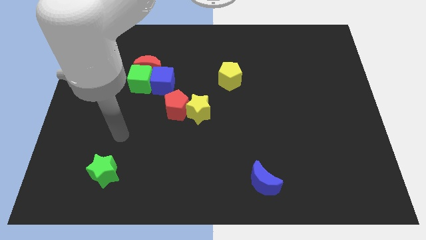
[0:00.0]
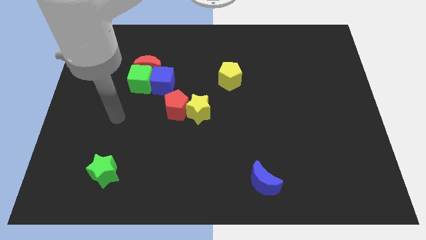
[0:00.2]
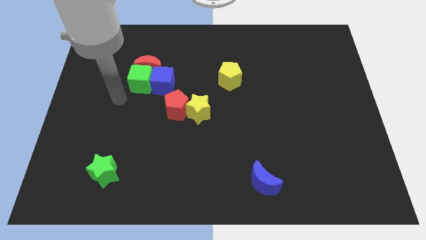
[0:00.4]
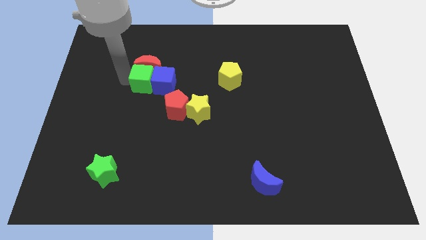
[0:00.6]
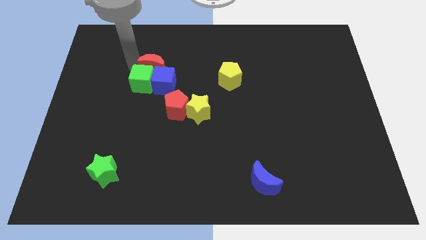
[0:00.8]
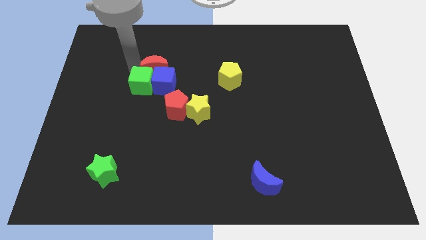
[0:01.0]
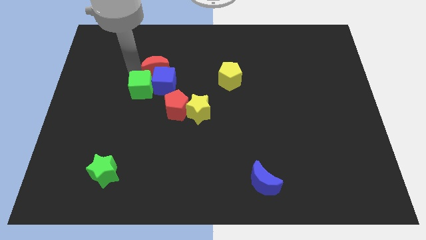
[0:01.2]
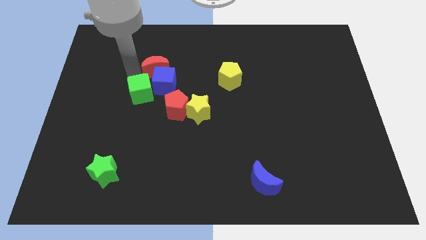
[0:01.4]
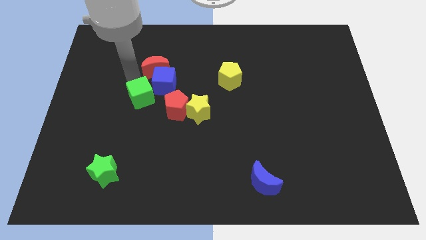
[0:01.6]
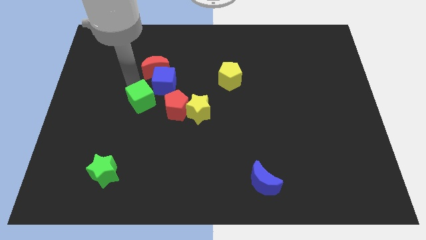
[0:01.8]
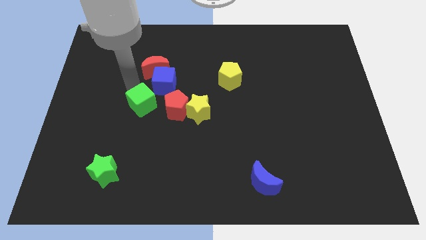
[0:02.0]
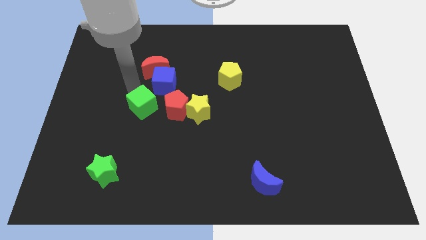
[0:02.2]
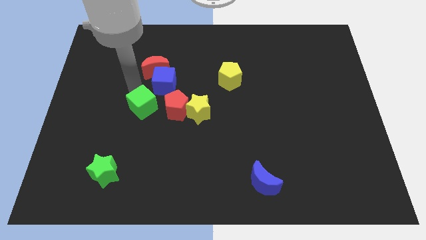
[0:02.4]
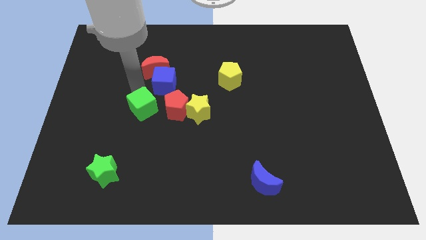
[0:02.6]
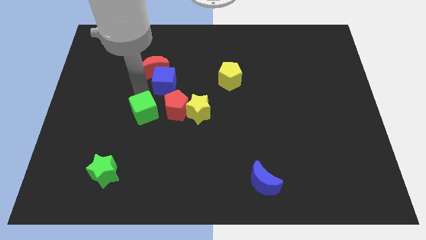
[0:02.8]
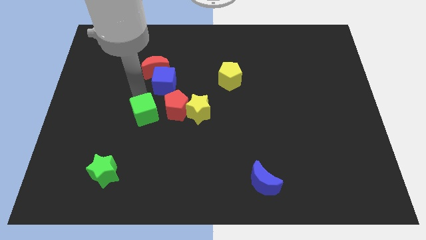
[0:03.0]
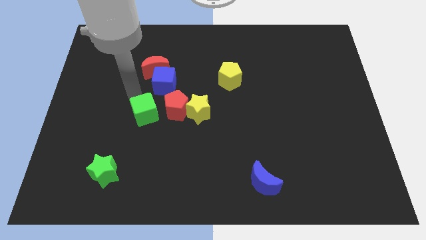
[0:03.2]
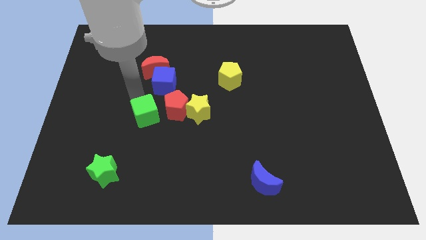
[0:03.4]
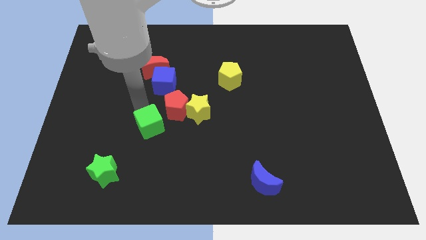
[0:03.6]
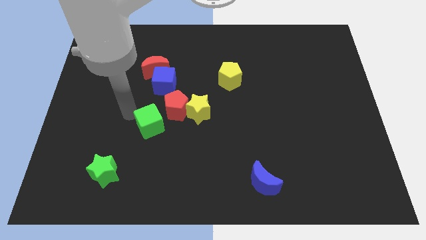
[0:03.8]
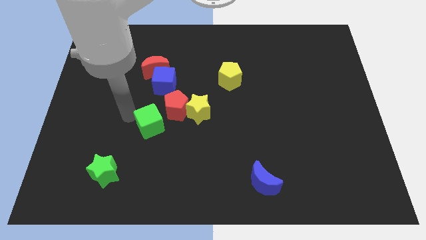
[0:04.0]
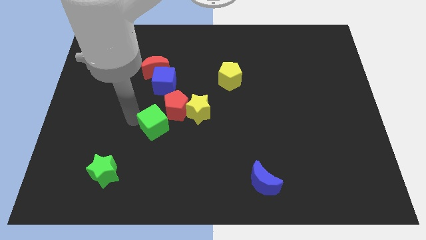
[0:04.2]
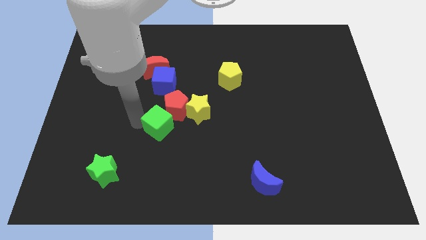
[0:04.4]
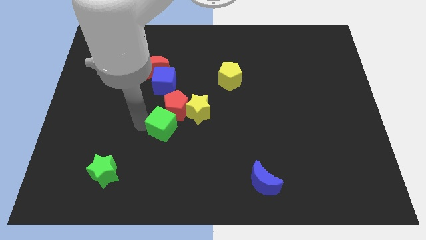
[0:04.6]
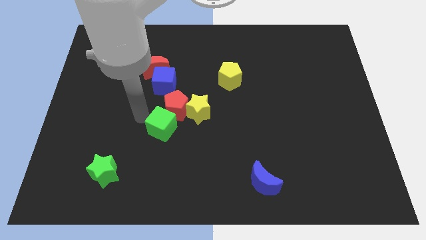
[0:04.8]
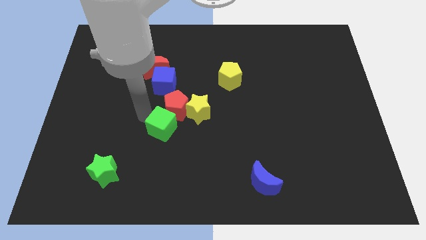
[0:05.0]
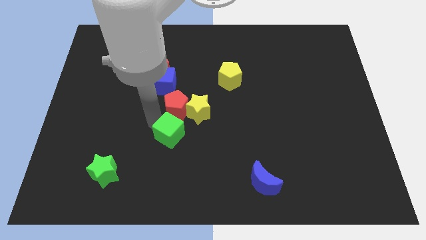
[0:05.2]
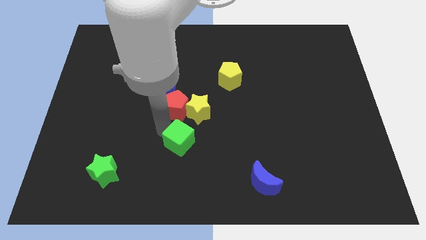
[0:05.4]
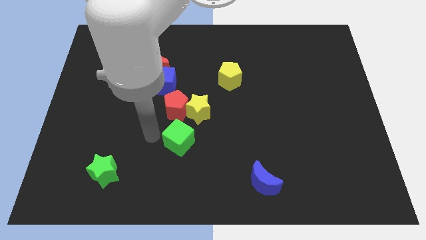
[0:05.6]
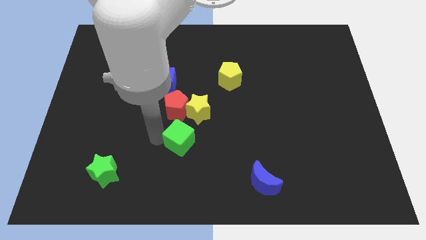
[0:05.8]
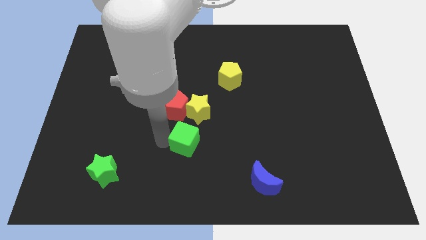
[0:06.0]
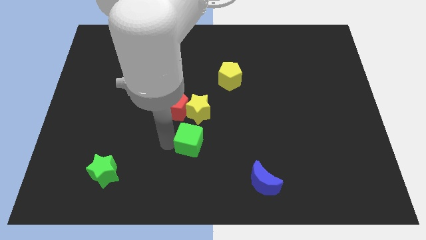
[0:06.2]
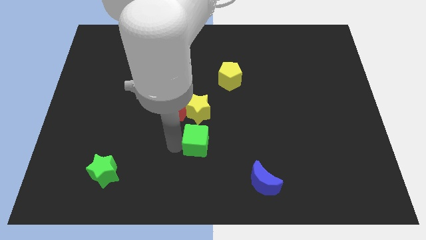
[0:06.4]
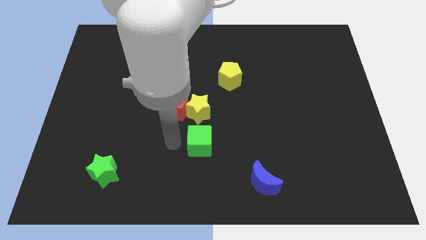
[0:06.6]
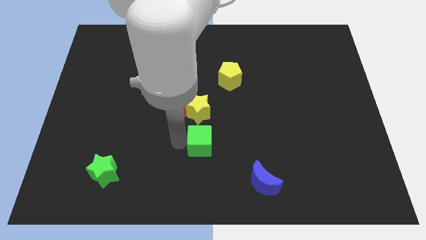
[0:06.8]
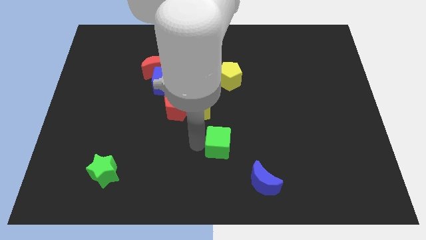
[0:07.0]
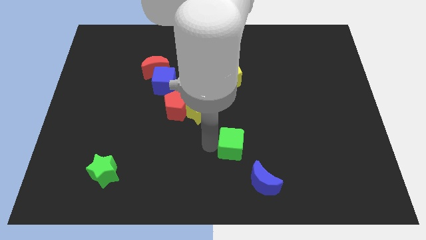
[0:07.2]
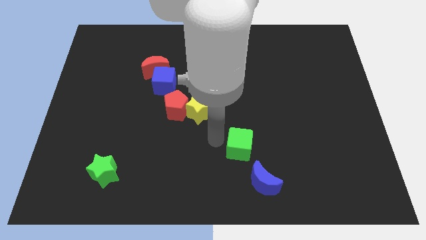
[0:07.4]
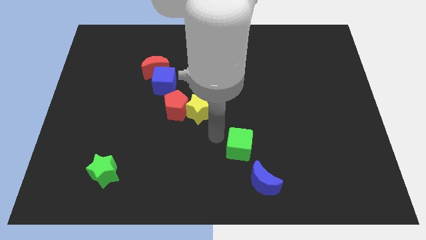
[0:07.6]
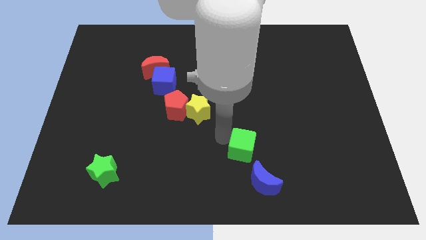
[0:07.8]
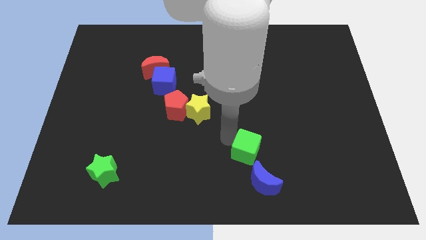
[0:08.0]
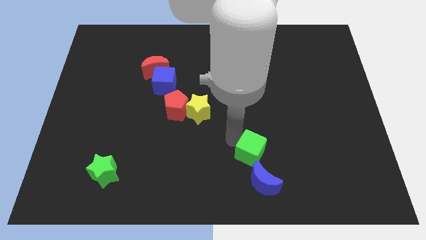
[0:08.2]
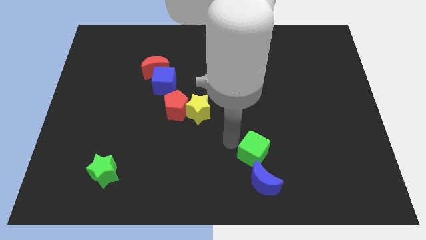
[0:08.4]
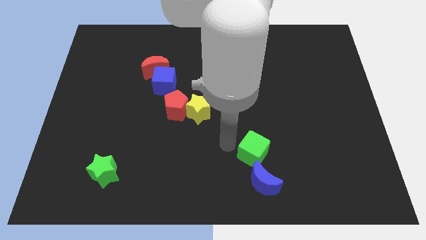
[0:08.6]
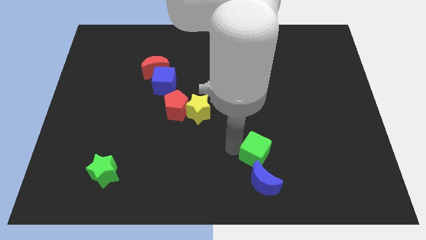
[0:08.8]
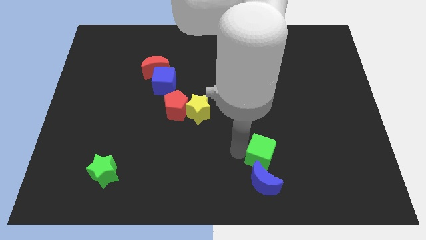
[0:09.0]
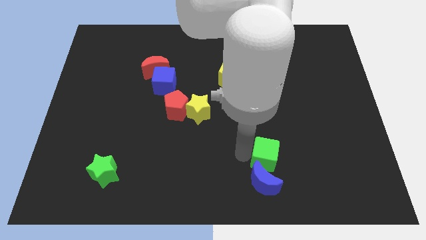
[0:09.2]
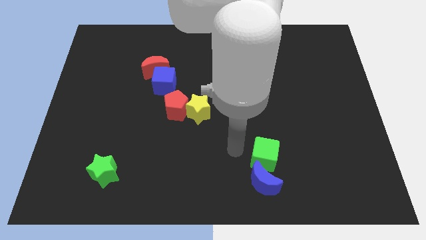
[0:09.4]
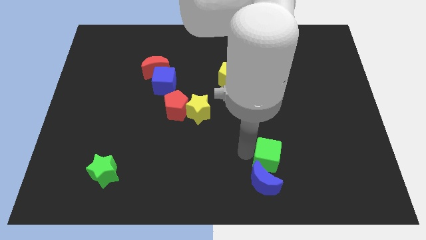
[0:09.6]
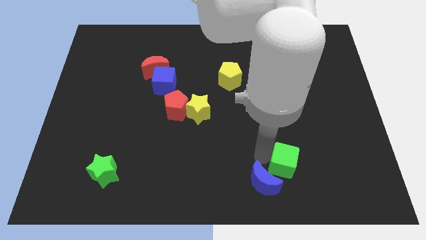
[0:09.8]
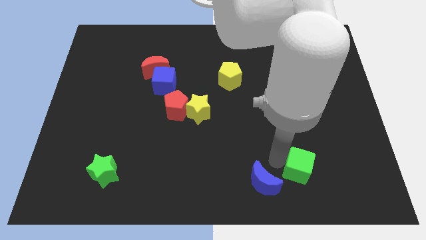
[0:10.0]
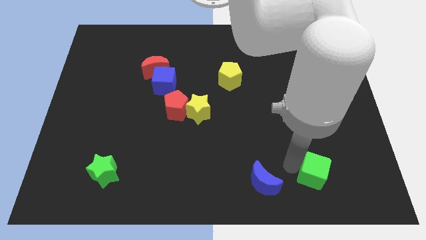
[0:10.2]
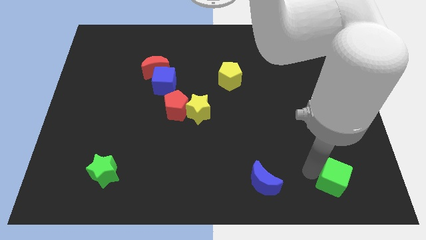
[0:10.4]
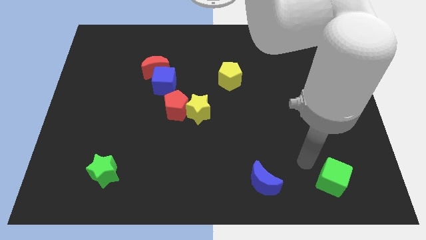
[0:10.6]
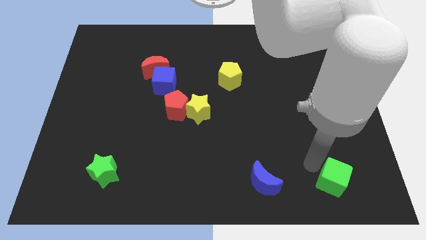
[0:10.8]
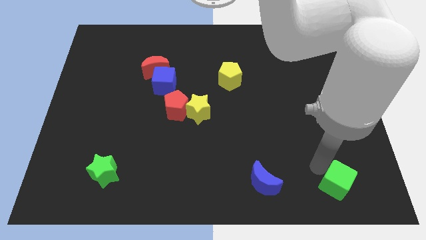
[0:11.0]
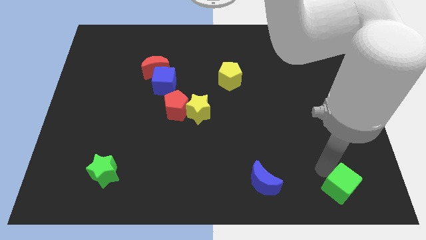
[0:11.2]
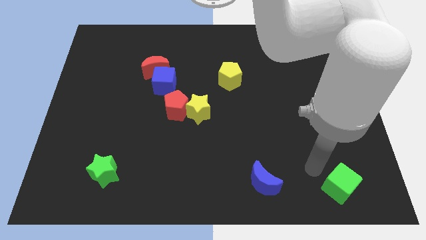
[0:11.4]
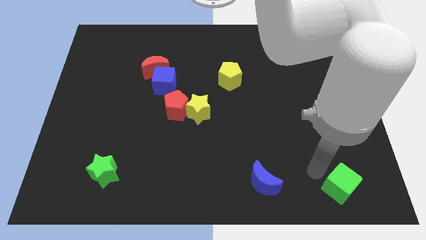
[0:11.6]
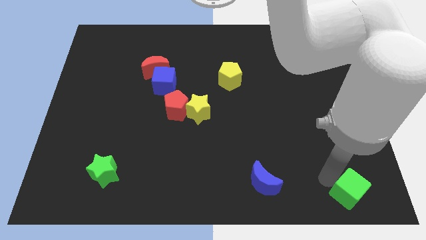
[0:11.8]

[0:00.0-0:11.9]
slide the green cube to the bottom right of the board
